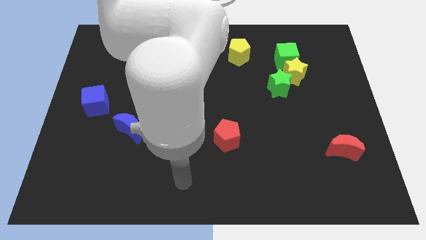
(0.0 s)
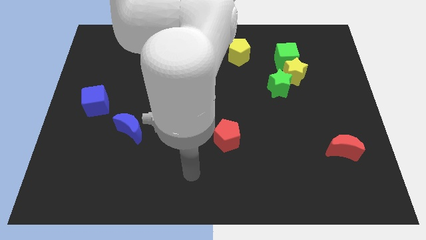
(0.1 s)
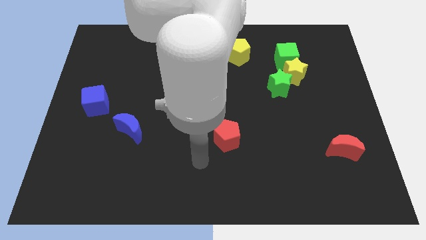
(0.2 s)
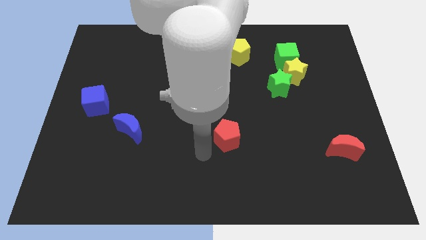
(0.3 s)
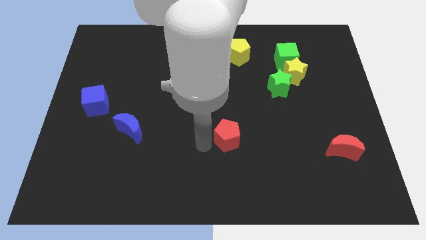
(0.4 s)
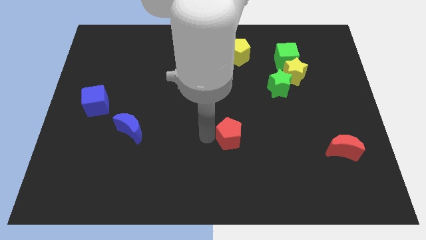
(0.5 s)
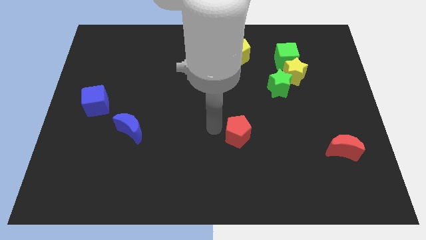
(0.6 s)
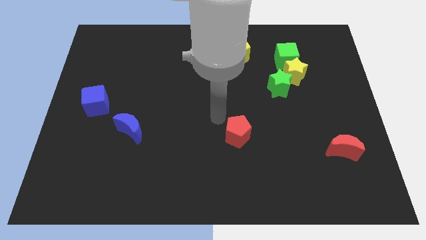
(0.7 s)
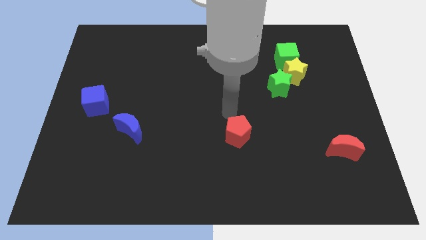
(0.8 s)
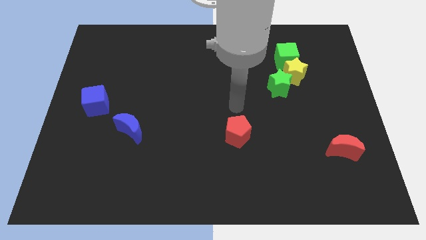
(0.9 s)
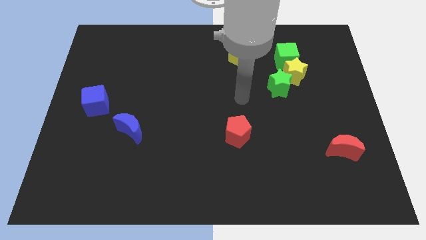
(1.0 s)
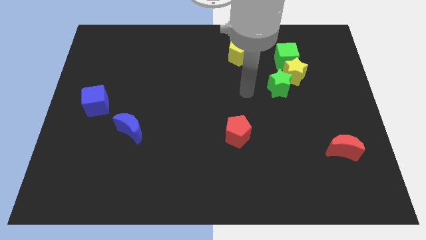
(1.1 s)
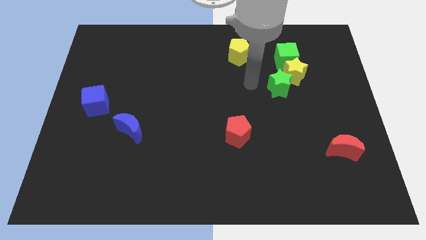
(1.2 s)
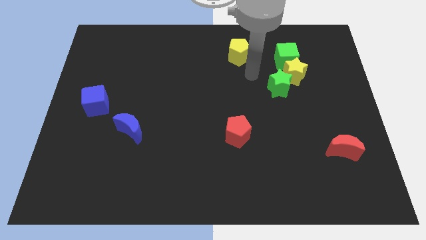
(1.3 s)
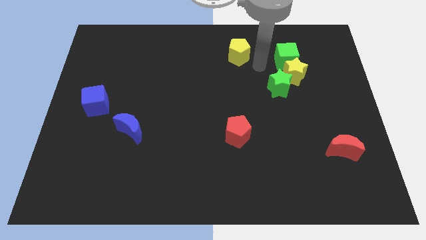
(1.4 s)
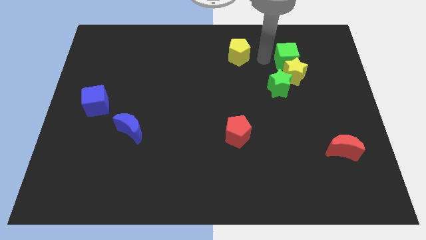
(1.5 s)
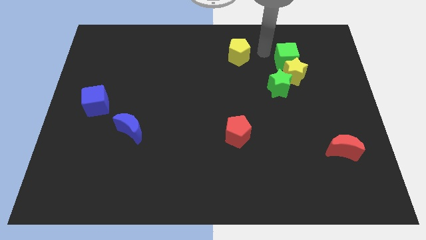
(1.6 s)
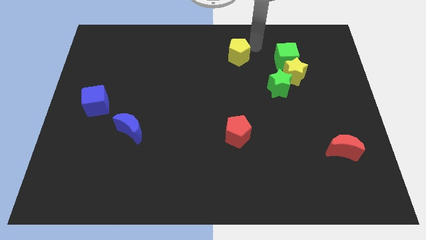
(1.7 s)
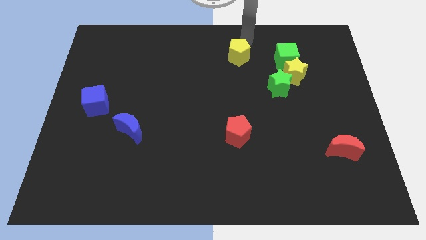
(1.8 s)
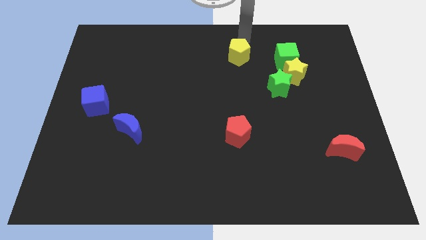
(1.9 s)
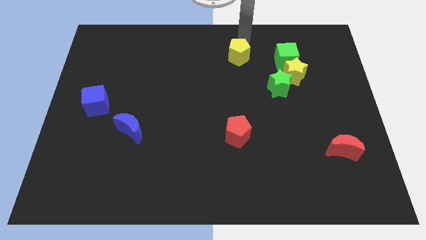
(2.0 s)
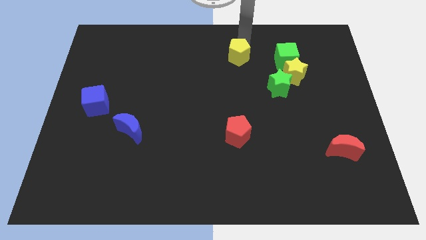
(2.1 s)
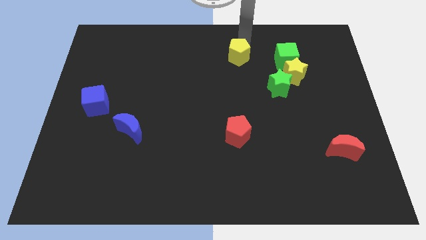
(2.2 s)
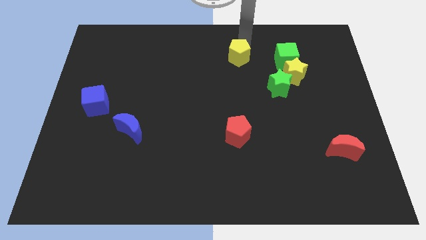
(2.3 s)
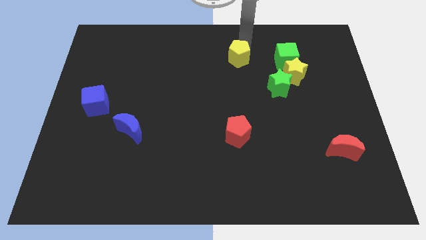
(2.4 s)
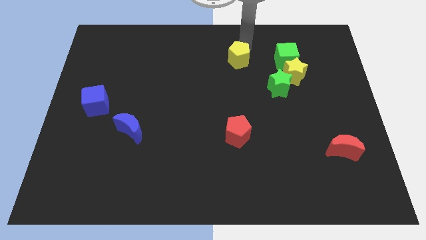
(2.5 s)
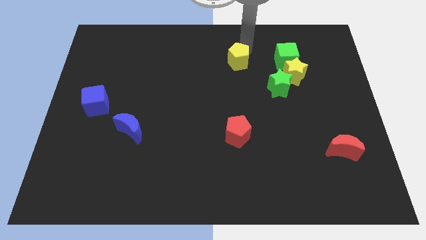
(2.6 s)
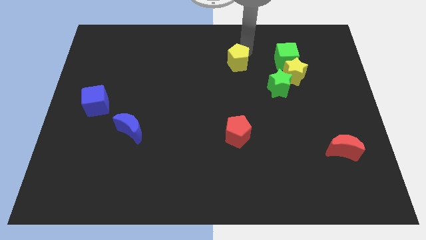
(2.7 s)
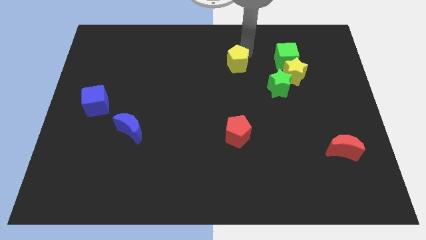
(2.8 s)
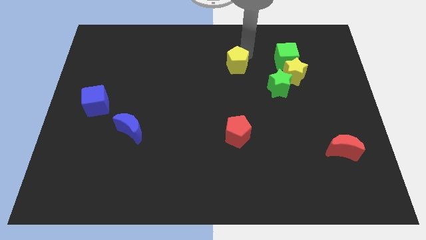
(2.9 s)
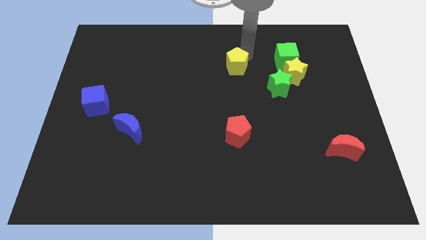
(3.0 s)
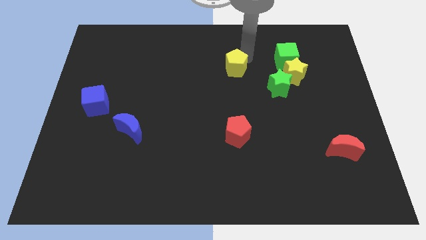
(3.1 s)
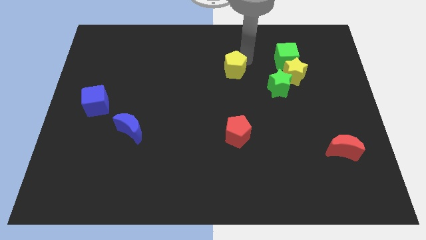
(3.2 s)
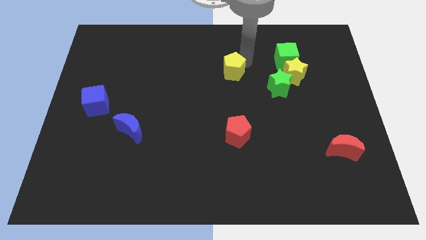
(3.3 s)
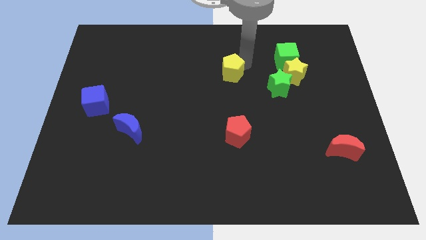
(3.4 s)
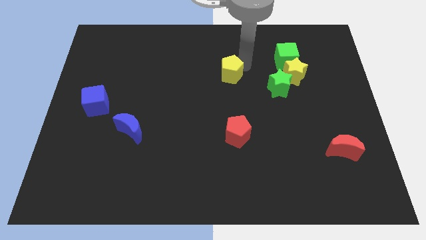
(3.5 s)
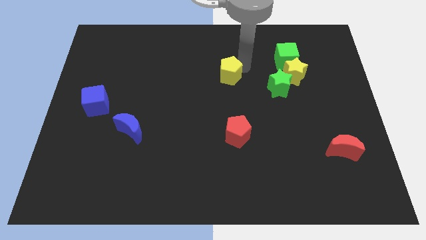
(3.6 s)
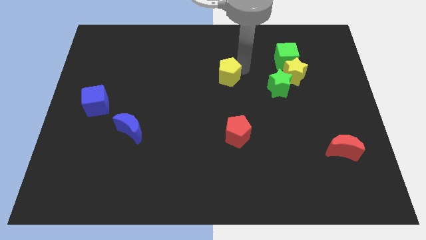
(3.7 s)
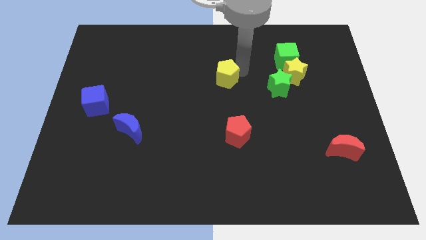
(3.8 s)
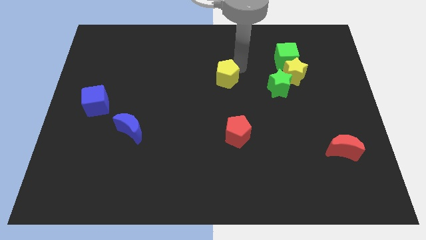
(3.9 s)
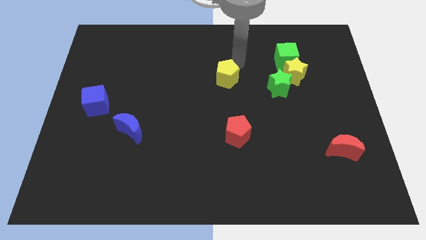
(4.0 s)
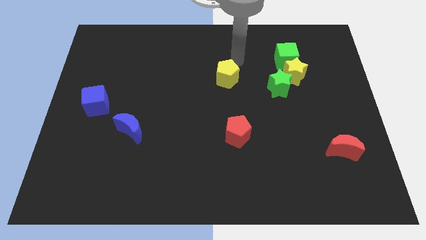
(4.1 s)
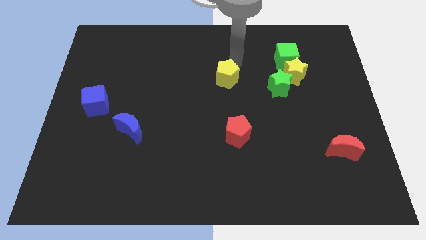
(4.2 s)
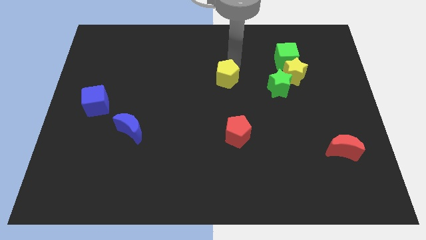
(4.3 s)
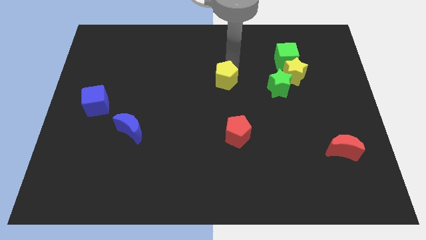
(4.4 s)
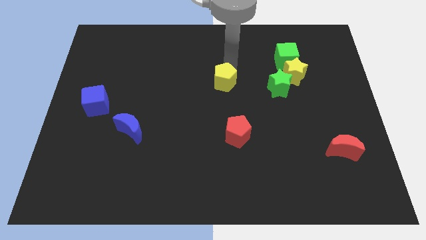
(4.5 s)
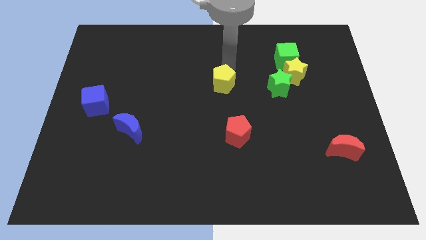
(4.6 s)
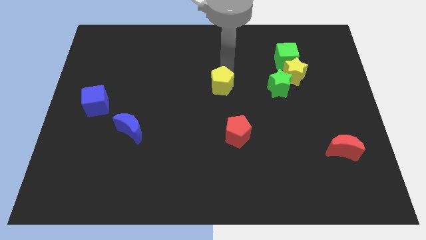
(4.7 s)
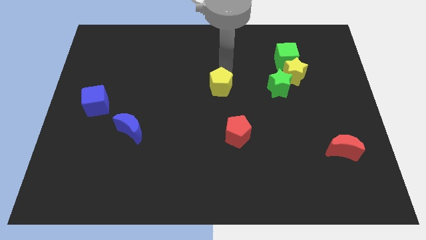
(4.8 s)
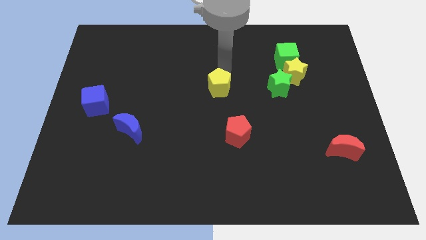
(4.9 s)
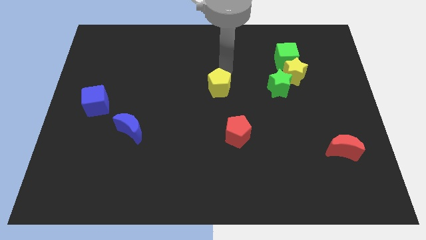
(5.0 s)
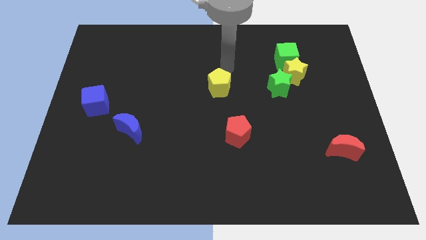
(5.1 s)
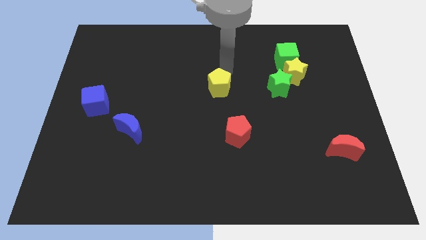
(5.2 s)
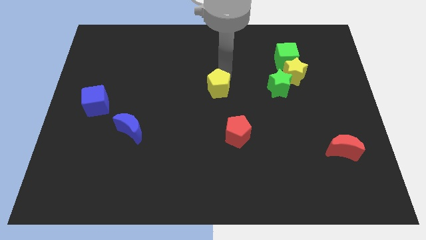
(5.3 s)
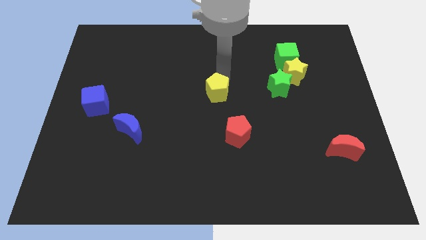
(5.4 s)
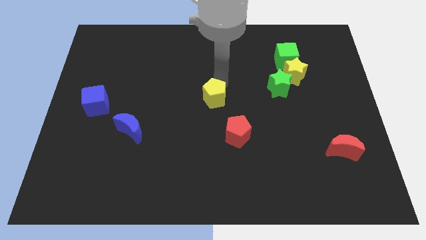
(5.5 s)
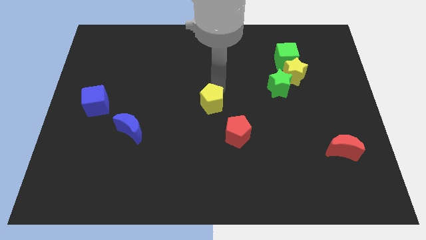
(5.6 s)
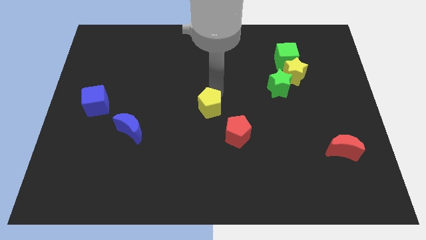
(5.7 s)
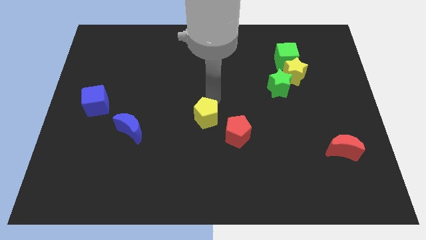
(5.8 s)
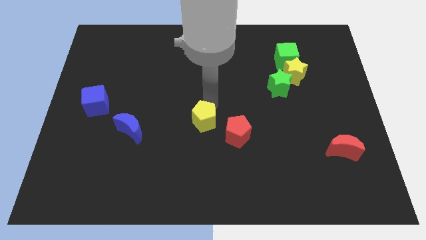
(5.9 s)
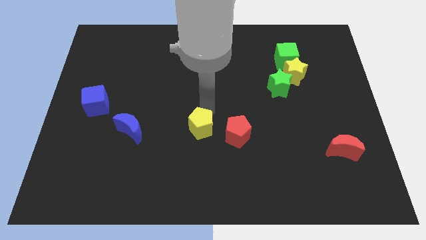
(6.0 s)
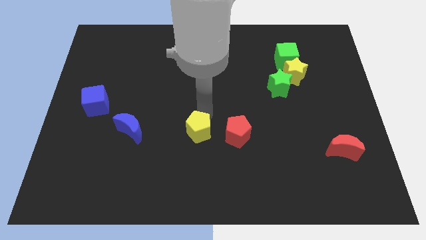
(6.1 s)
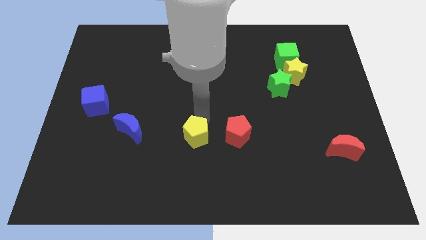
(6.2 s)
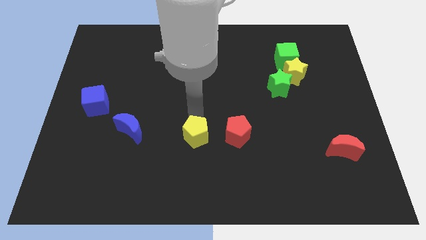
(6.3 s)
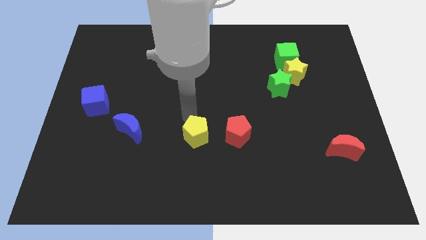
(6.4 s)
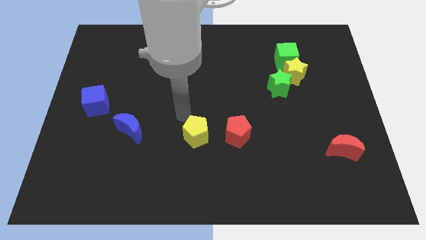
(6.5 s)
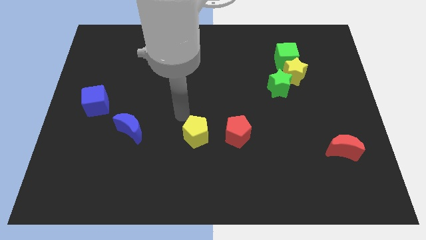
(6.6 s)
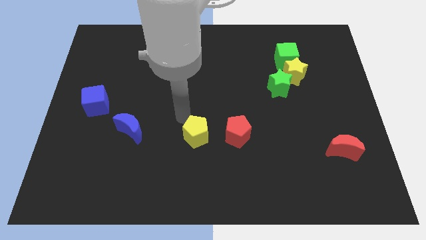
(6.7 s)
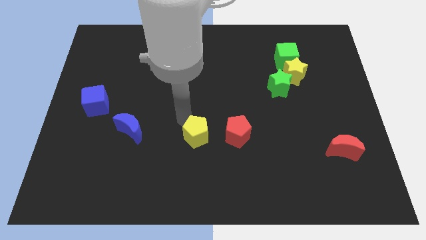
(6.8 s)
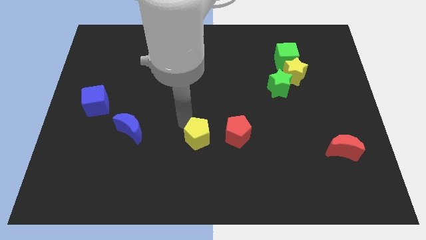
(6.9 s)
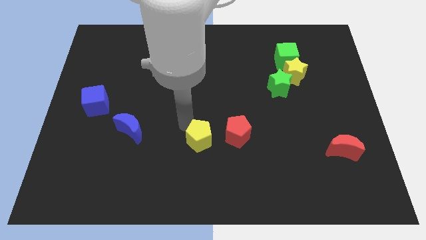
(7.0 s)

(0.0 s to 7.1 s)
push the yellow pentagon diagonally down and to the left of the red pentagon
